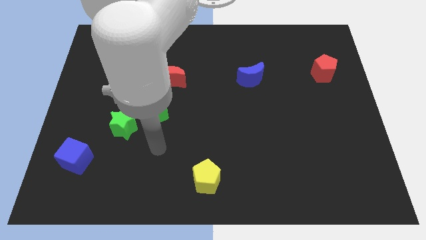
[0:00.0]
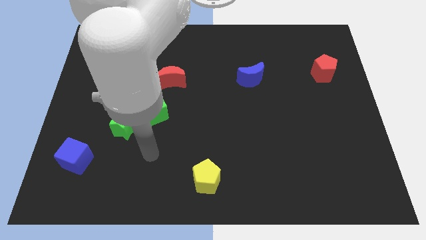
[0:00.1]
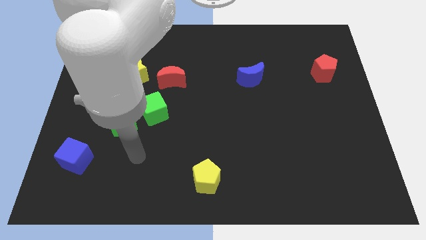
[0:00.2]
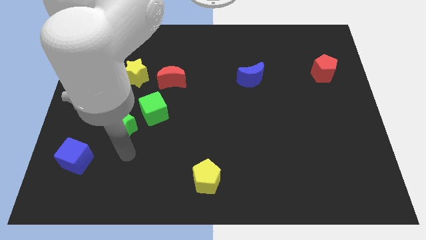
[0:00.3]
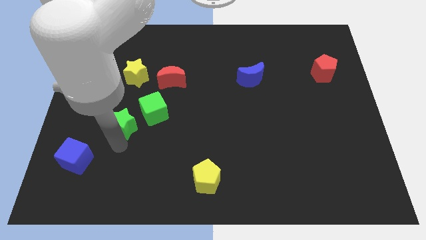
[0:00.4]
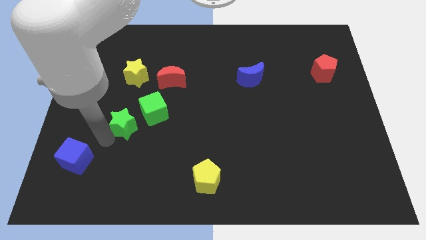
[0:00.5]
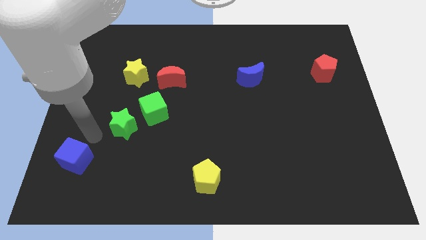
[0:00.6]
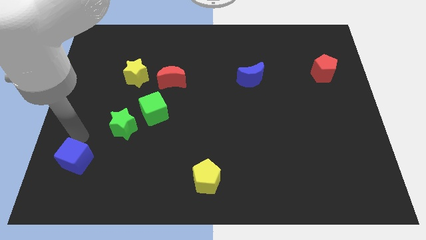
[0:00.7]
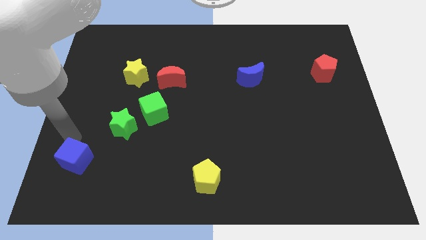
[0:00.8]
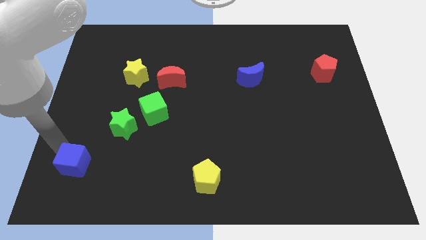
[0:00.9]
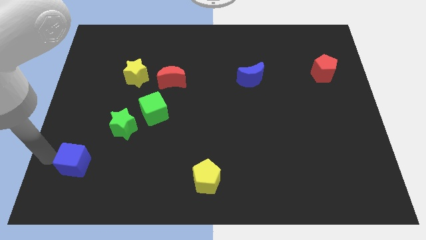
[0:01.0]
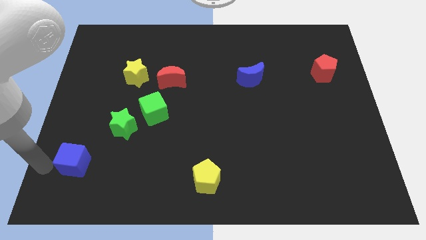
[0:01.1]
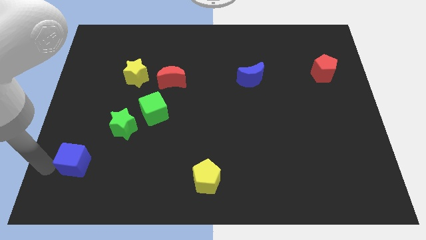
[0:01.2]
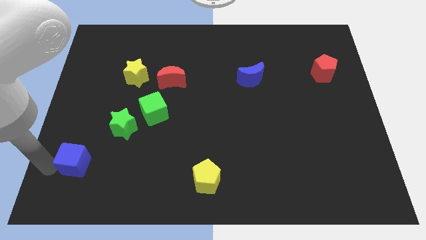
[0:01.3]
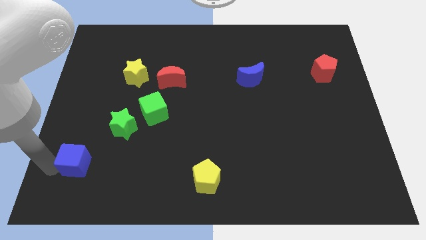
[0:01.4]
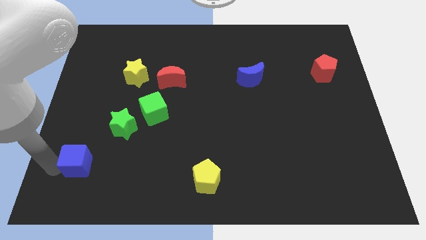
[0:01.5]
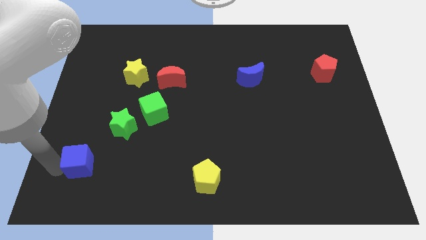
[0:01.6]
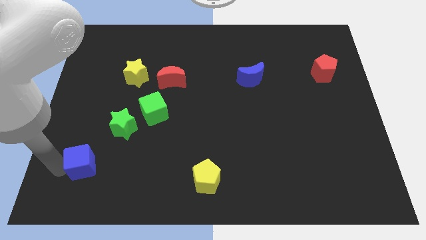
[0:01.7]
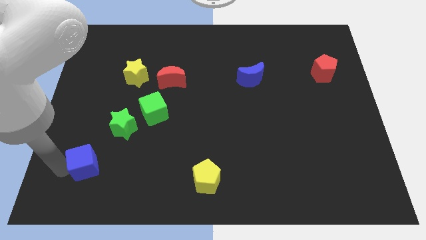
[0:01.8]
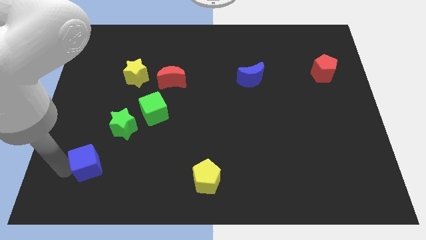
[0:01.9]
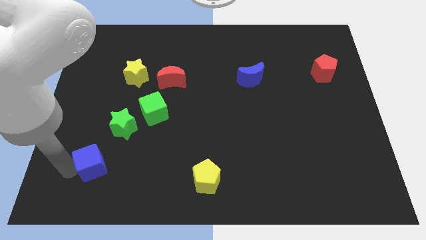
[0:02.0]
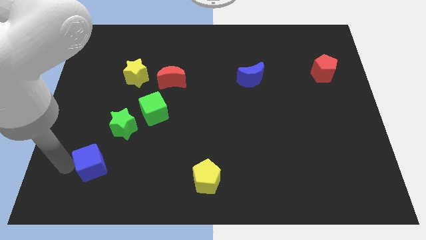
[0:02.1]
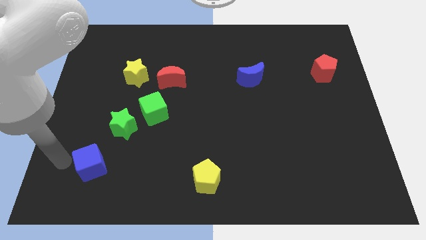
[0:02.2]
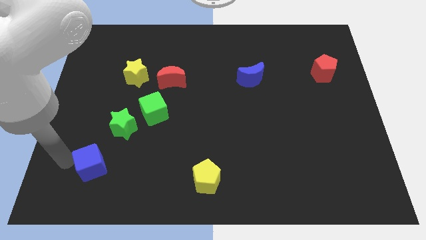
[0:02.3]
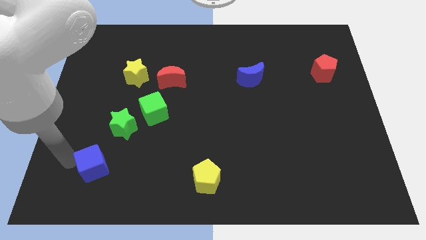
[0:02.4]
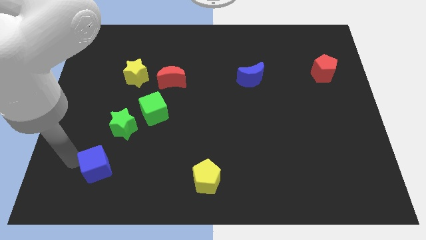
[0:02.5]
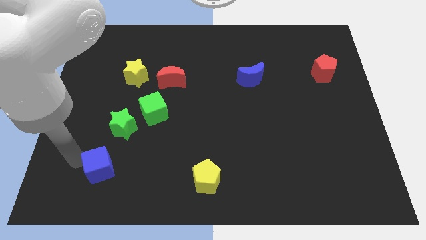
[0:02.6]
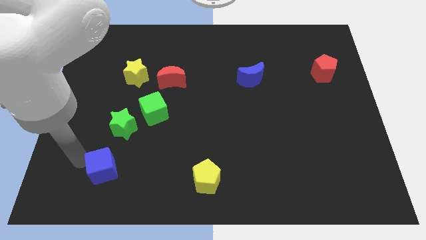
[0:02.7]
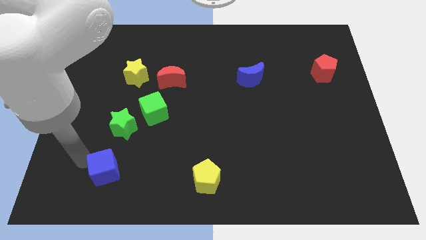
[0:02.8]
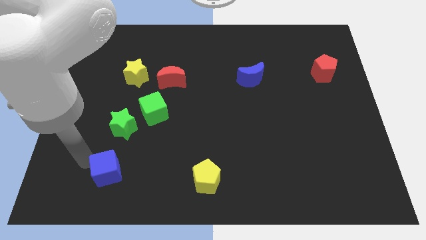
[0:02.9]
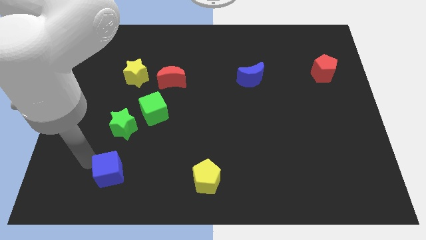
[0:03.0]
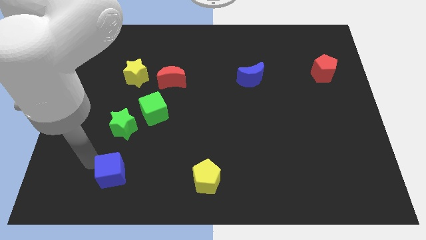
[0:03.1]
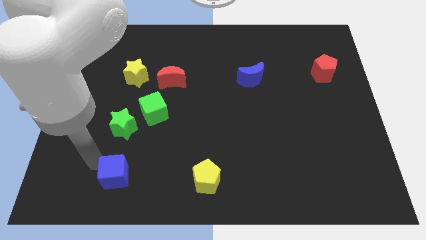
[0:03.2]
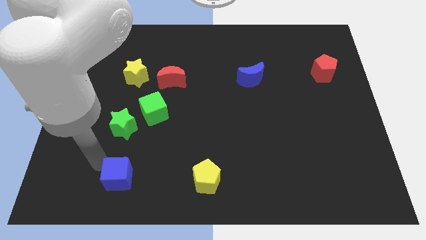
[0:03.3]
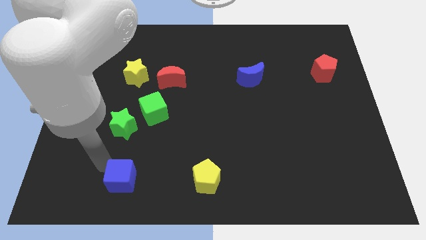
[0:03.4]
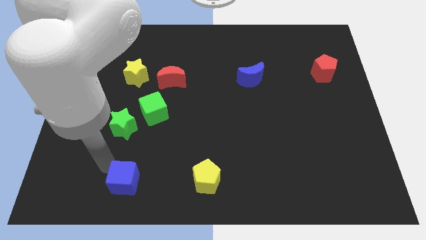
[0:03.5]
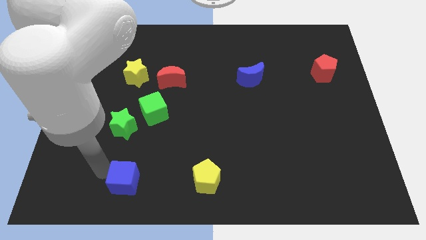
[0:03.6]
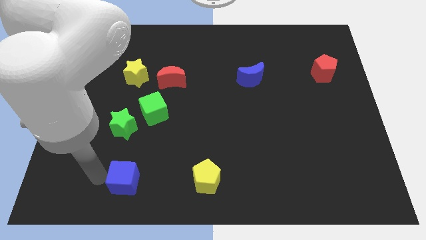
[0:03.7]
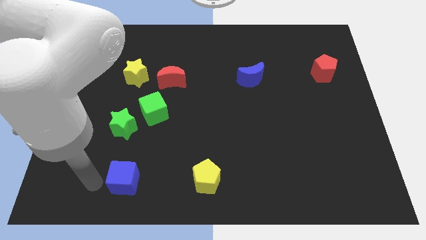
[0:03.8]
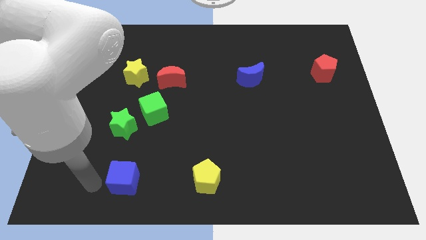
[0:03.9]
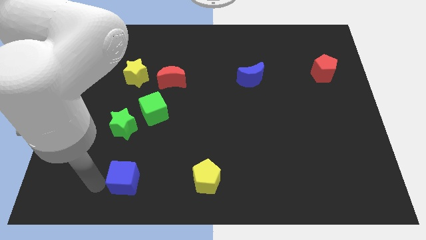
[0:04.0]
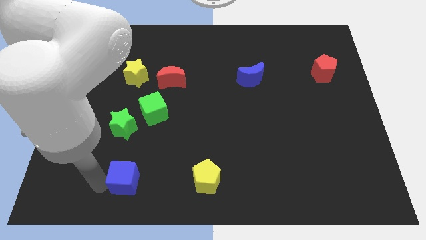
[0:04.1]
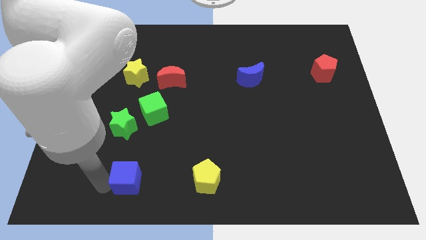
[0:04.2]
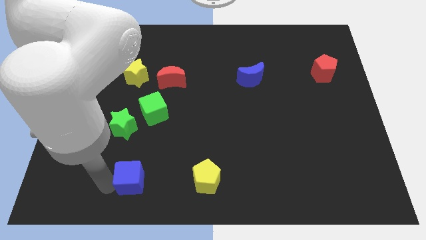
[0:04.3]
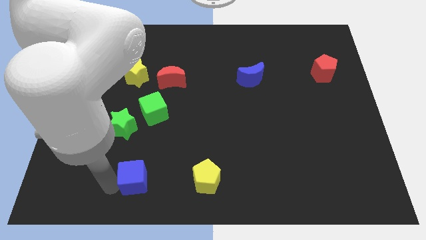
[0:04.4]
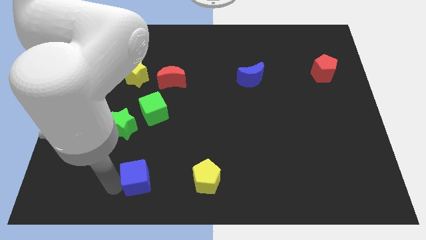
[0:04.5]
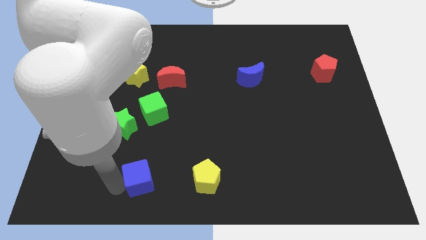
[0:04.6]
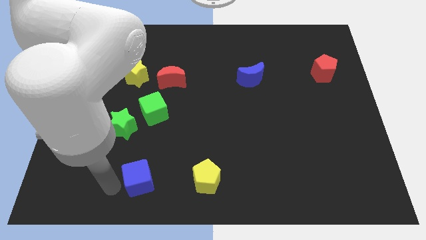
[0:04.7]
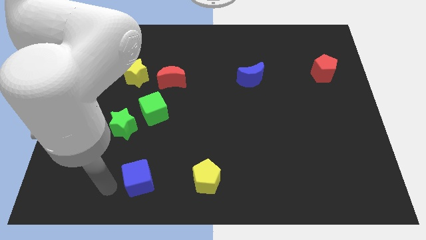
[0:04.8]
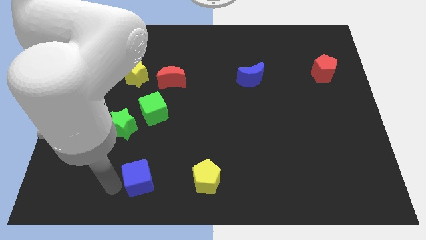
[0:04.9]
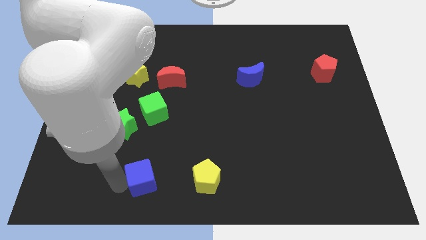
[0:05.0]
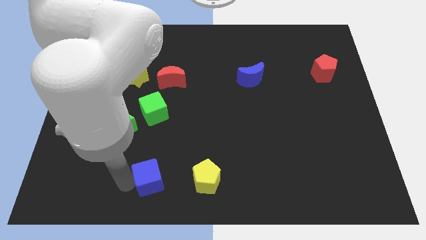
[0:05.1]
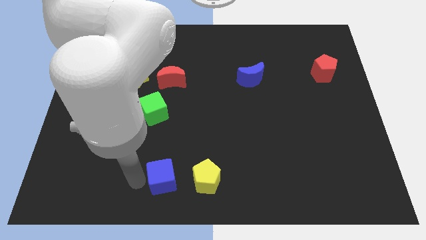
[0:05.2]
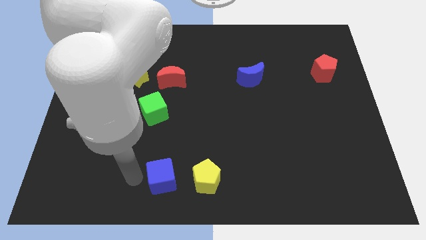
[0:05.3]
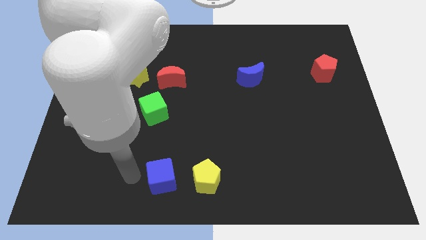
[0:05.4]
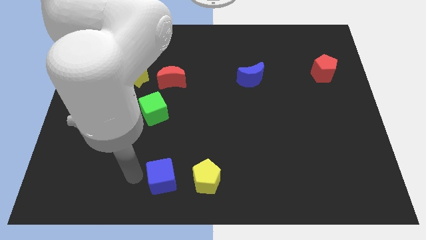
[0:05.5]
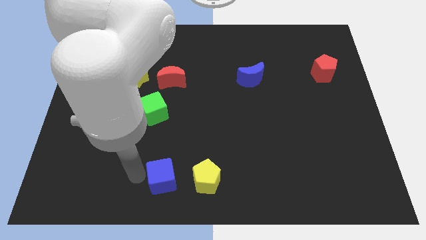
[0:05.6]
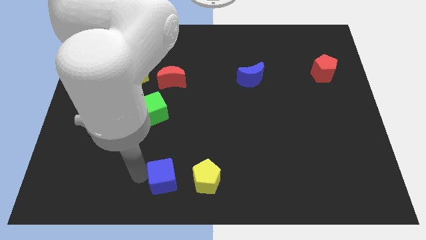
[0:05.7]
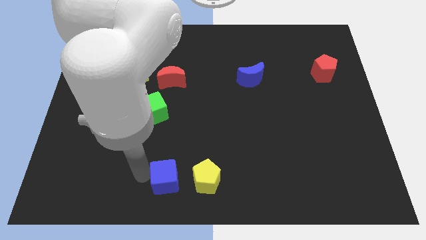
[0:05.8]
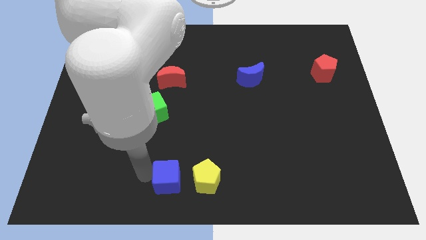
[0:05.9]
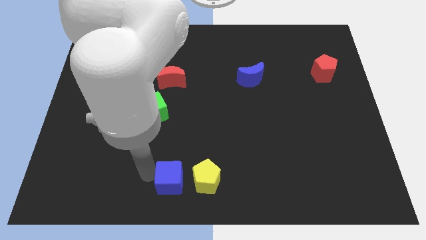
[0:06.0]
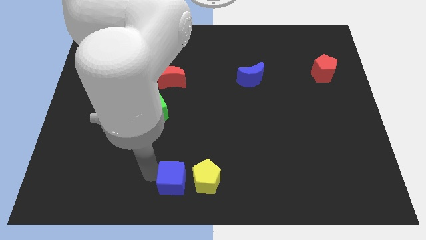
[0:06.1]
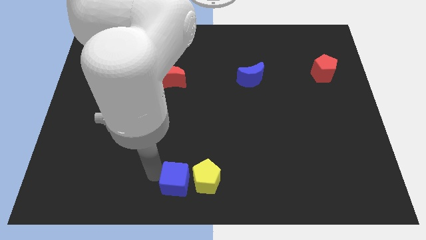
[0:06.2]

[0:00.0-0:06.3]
slide the blue cube to the yellow pentagon

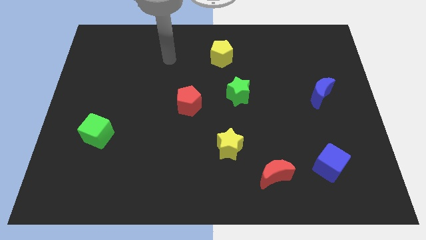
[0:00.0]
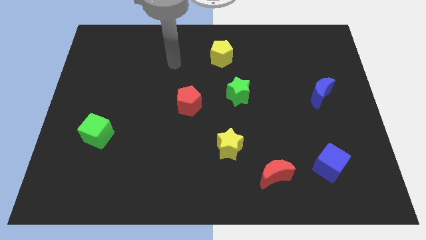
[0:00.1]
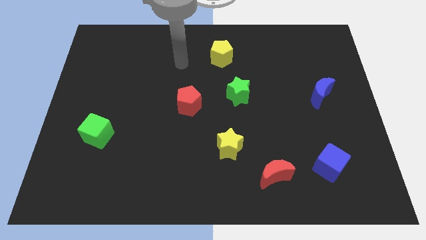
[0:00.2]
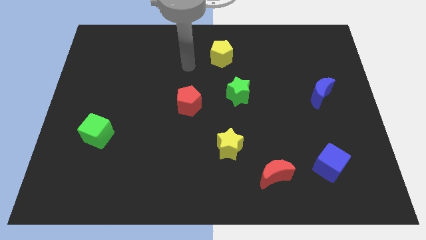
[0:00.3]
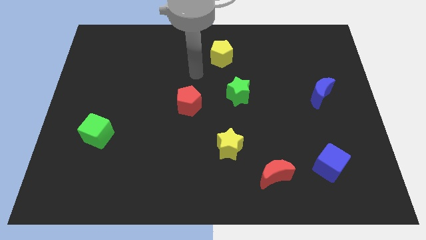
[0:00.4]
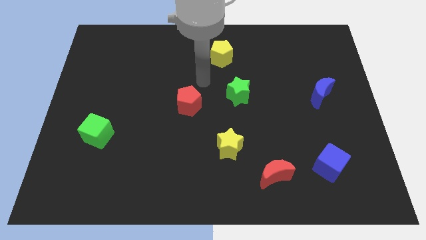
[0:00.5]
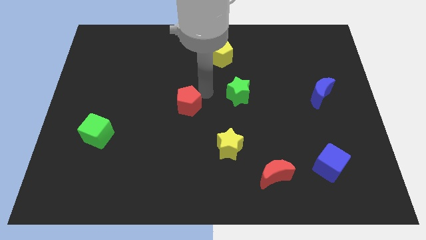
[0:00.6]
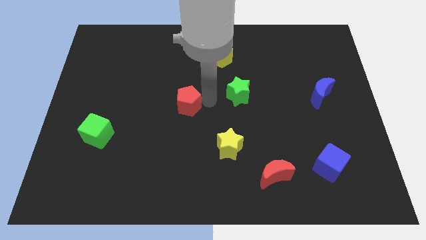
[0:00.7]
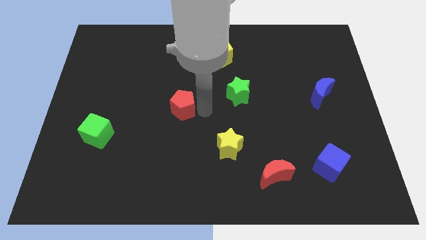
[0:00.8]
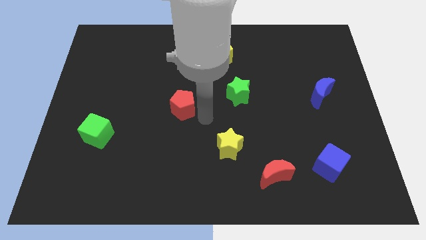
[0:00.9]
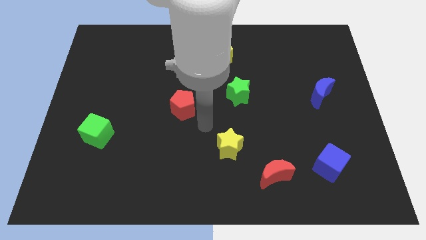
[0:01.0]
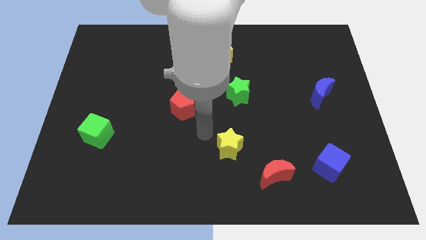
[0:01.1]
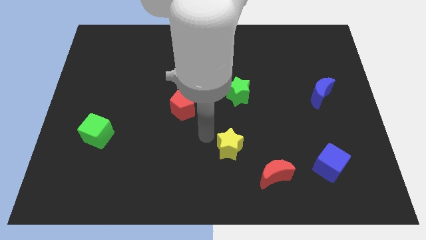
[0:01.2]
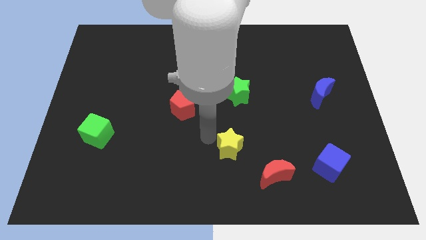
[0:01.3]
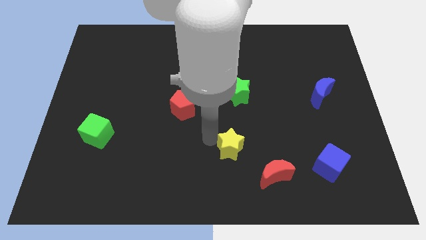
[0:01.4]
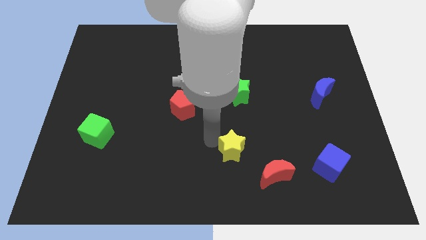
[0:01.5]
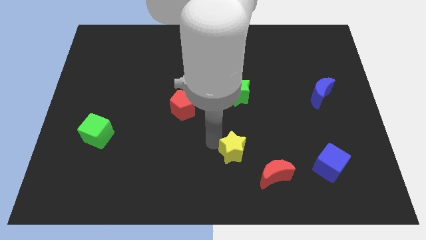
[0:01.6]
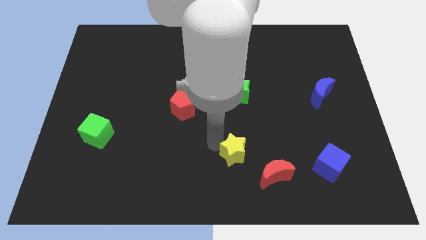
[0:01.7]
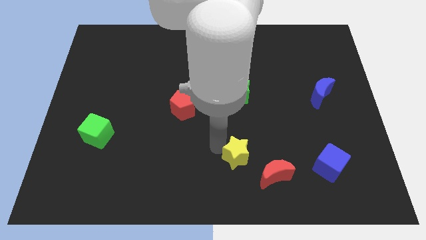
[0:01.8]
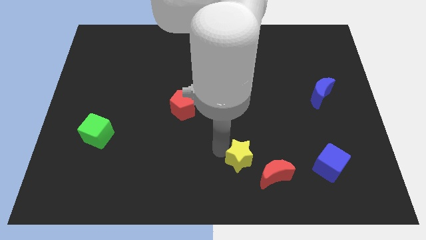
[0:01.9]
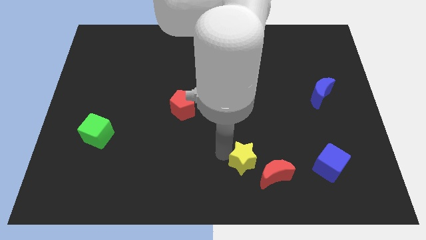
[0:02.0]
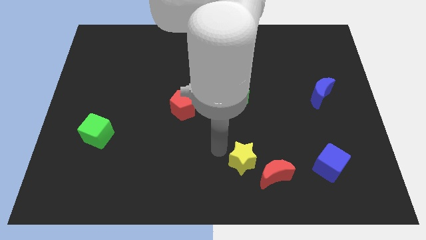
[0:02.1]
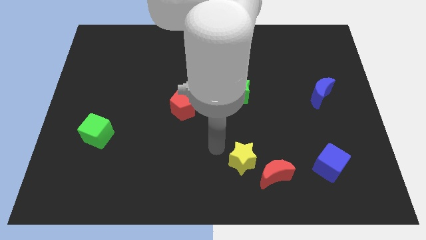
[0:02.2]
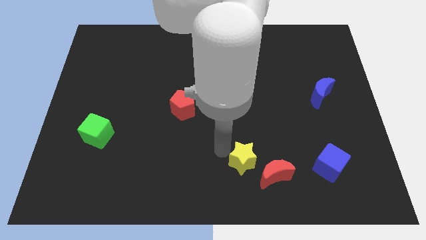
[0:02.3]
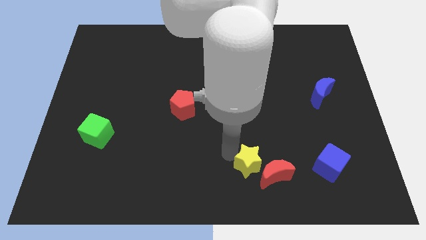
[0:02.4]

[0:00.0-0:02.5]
push the yellow star towards the red moon
